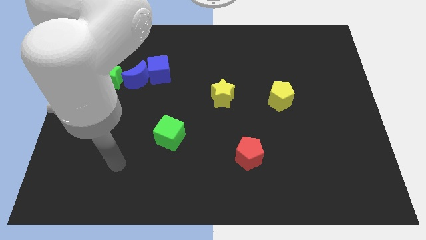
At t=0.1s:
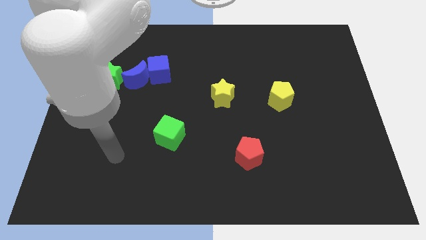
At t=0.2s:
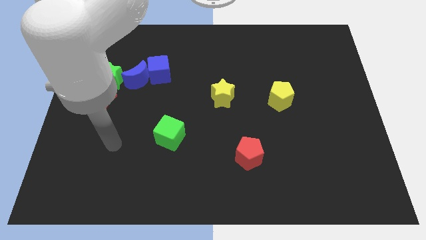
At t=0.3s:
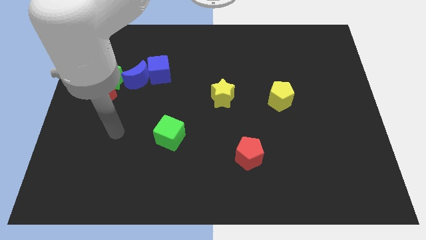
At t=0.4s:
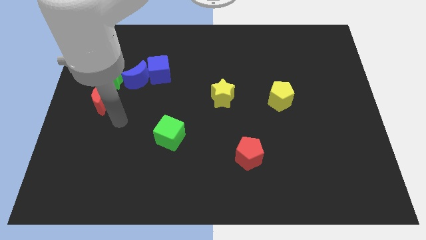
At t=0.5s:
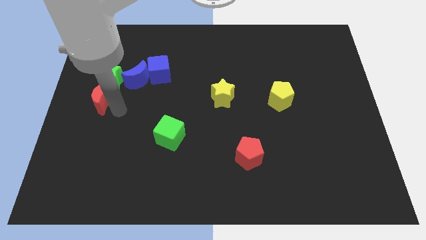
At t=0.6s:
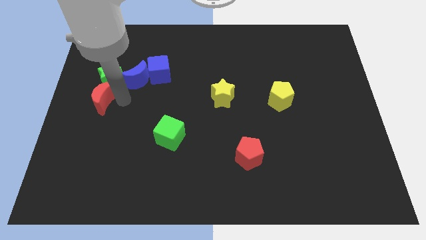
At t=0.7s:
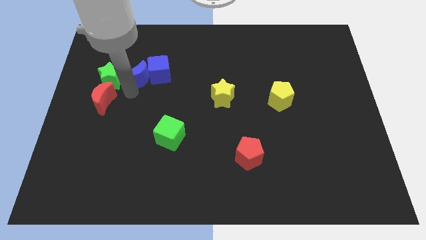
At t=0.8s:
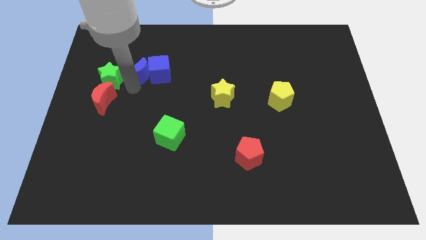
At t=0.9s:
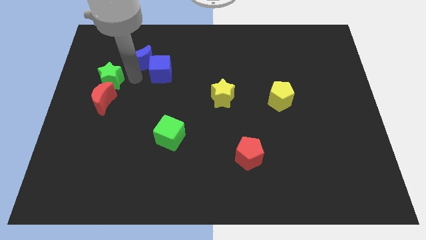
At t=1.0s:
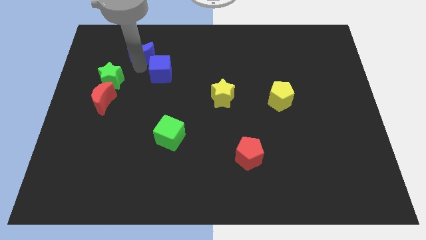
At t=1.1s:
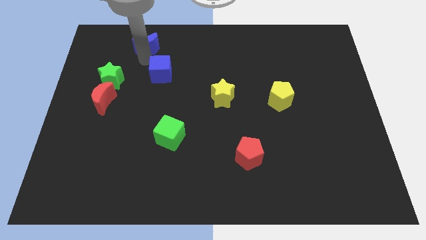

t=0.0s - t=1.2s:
move the blue cube away from the blue moon

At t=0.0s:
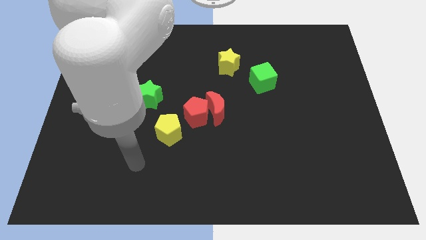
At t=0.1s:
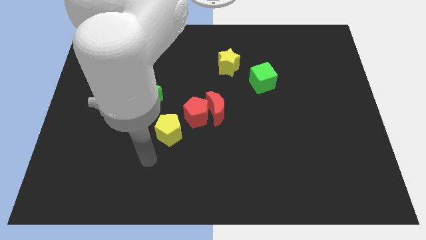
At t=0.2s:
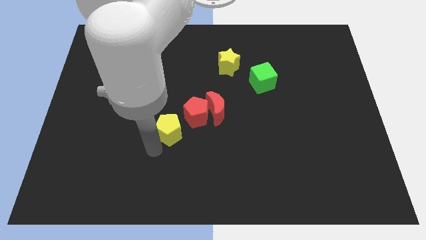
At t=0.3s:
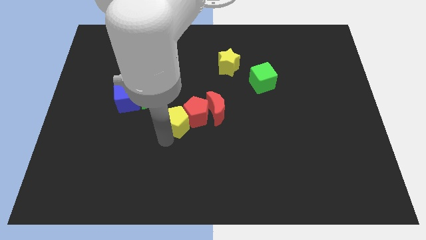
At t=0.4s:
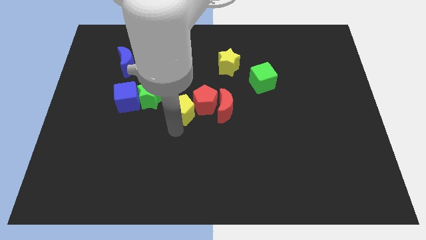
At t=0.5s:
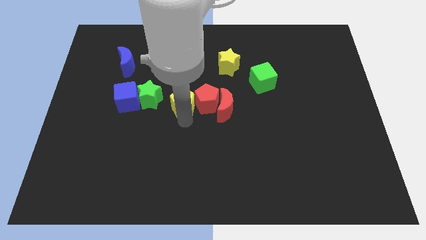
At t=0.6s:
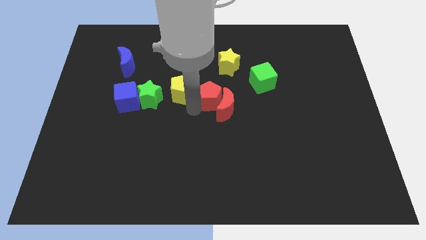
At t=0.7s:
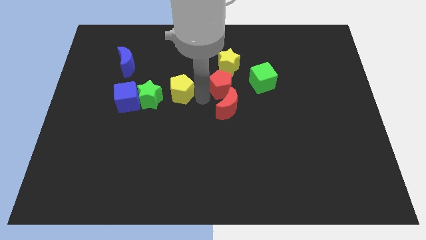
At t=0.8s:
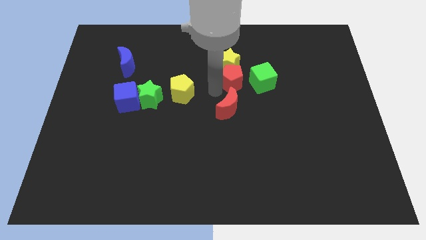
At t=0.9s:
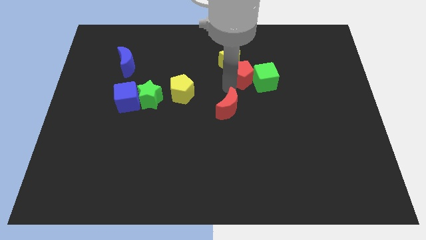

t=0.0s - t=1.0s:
separate the red moon from the red pentagon

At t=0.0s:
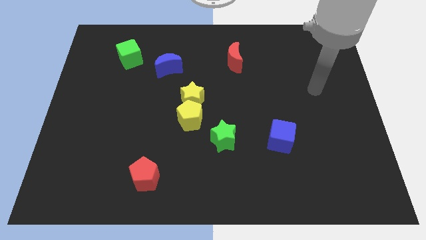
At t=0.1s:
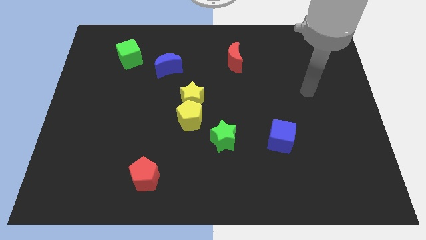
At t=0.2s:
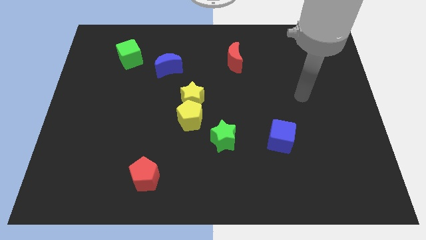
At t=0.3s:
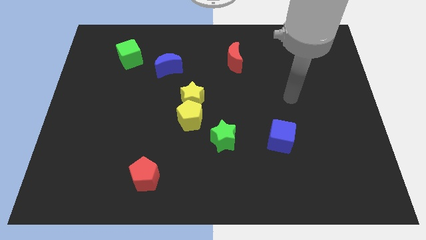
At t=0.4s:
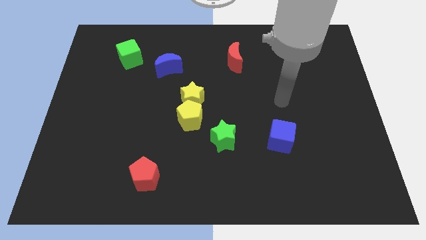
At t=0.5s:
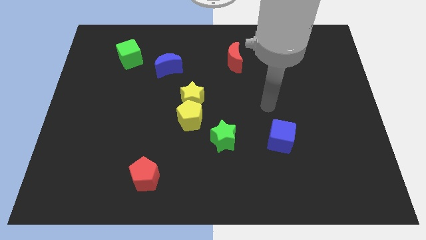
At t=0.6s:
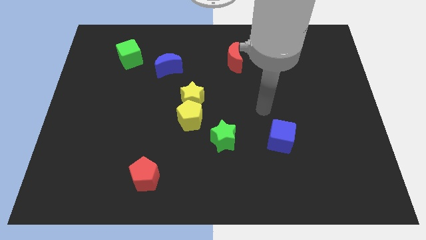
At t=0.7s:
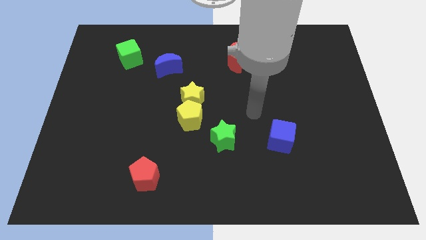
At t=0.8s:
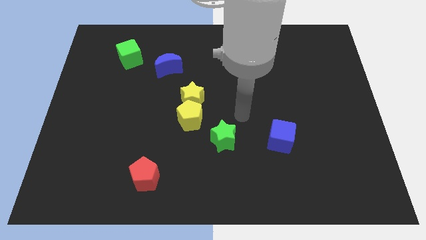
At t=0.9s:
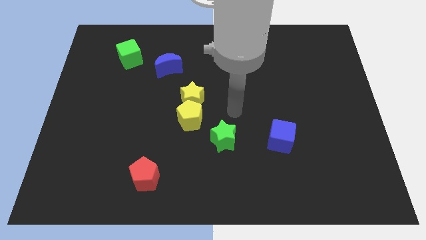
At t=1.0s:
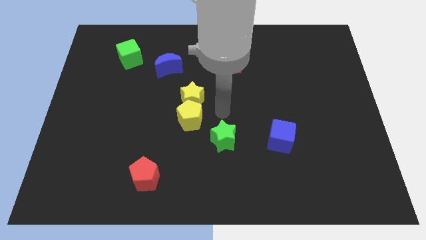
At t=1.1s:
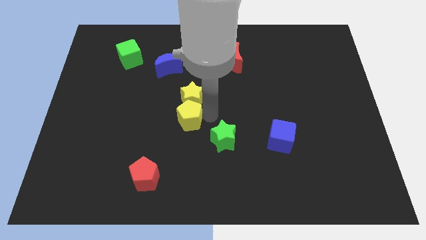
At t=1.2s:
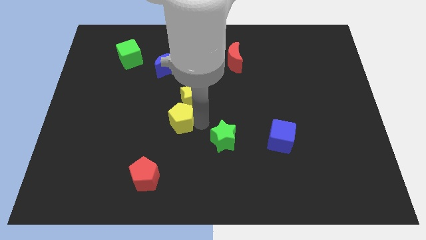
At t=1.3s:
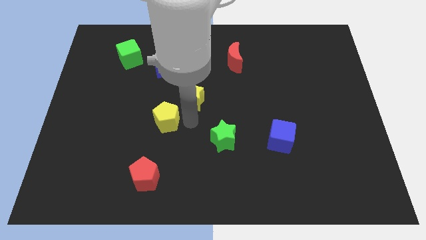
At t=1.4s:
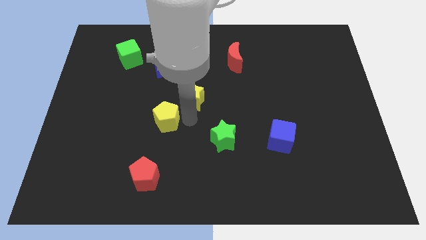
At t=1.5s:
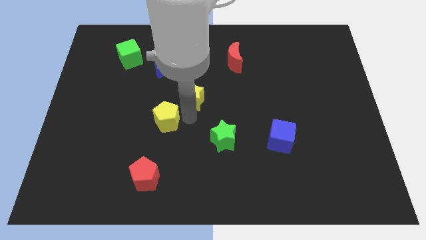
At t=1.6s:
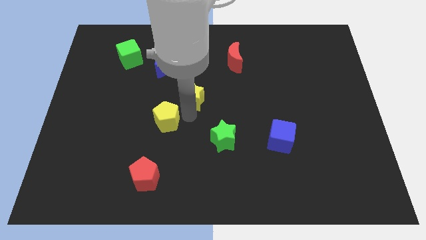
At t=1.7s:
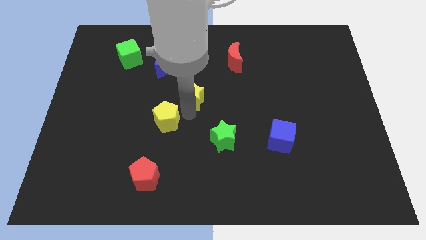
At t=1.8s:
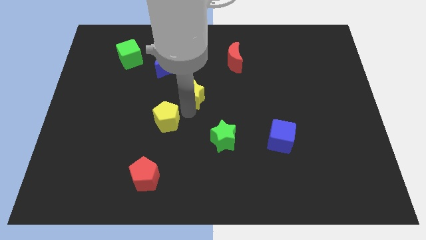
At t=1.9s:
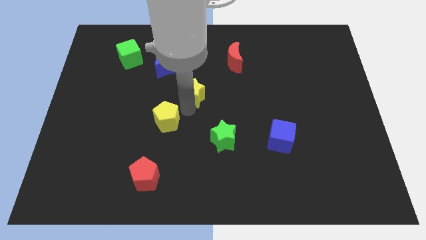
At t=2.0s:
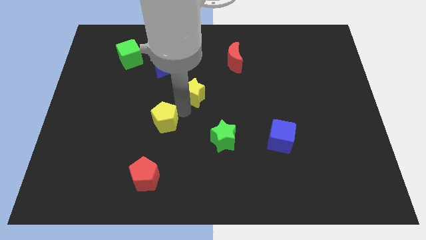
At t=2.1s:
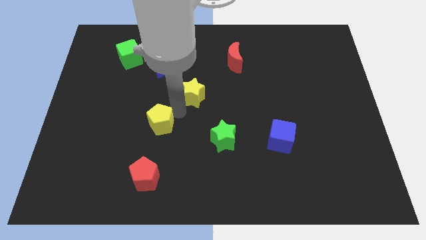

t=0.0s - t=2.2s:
move the yellow star away from the yellow pentagon

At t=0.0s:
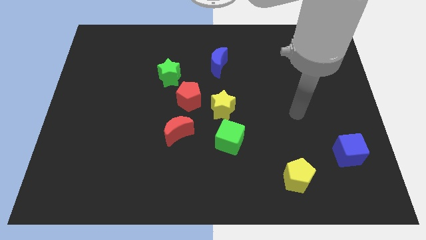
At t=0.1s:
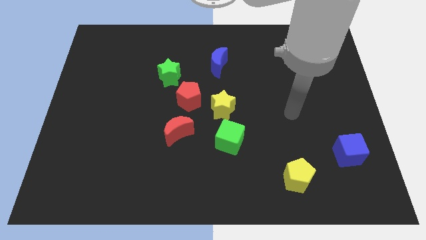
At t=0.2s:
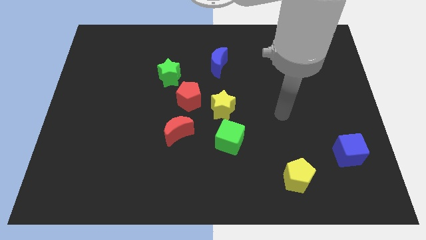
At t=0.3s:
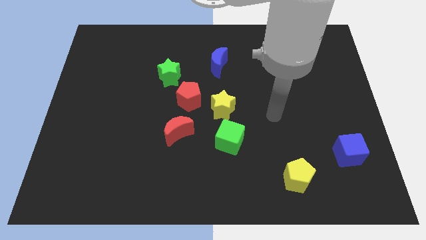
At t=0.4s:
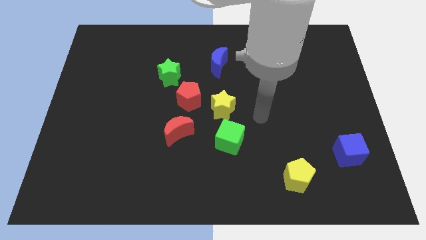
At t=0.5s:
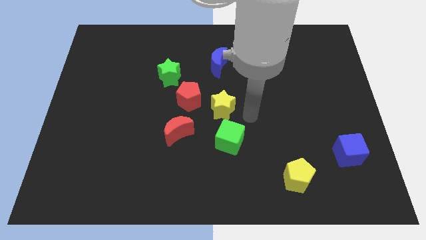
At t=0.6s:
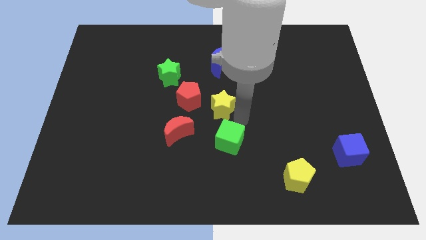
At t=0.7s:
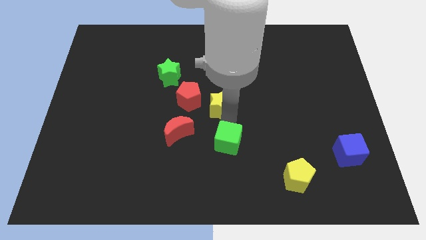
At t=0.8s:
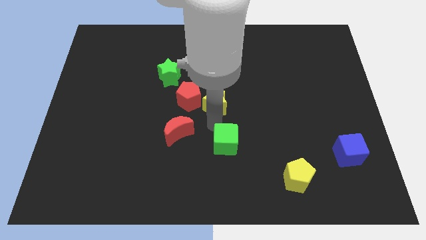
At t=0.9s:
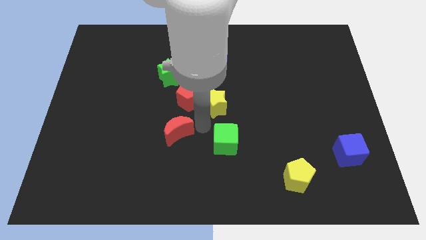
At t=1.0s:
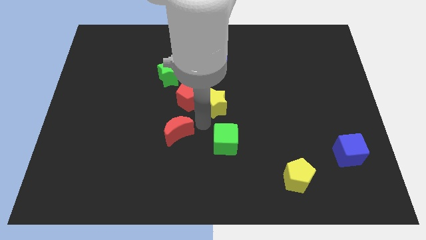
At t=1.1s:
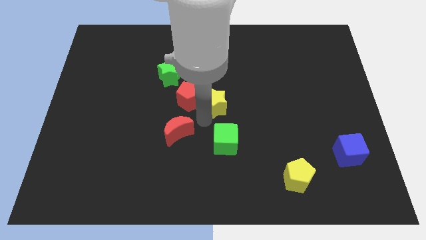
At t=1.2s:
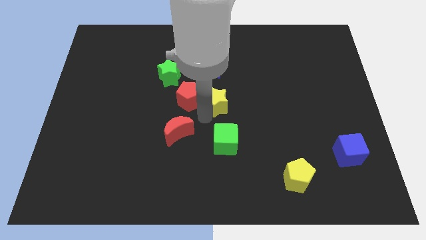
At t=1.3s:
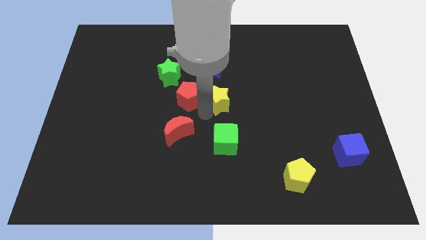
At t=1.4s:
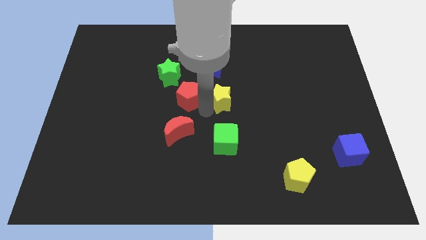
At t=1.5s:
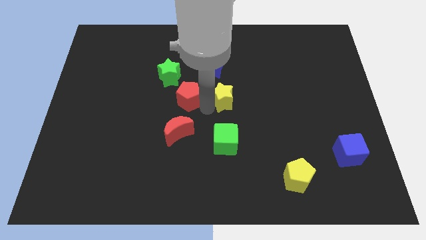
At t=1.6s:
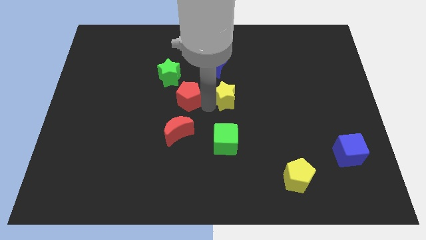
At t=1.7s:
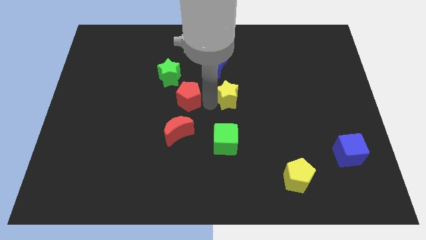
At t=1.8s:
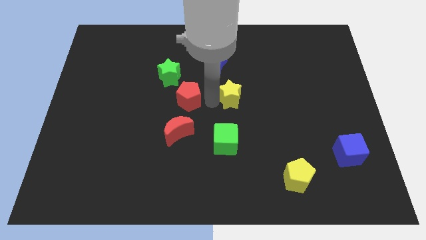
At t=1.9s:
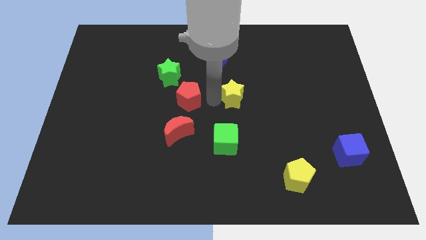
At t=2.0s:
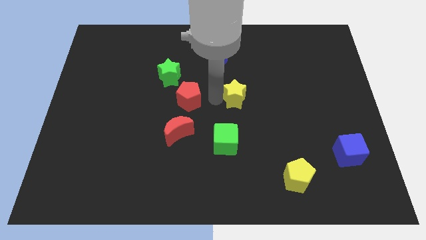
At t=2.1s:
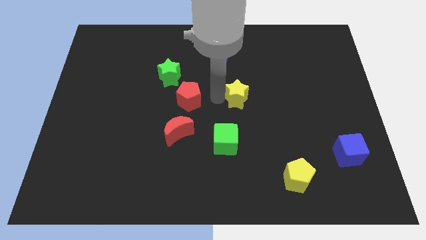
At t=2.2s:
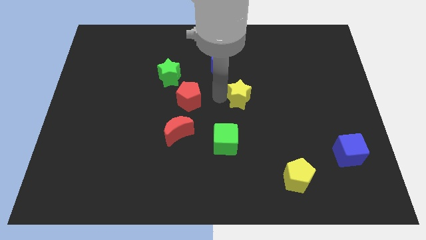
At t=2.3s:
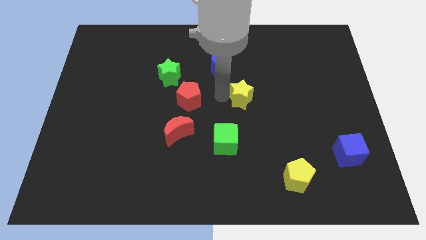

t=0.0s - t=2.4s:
move the yellow star away from the red pentagon and green cube

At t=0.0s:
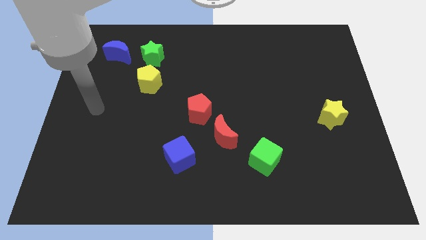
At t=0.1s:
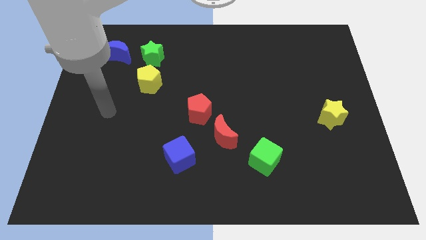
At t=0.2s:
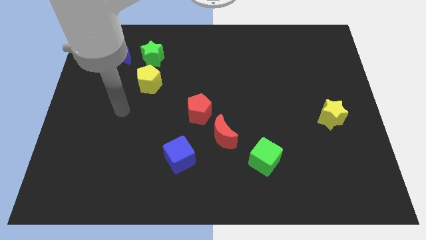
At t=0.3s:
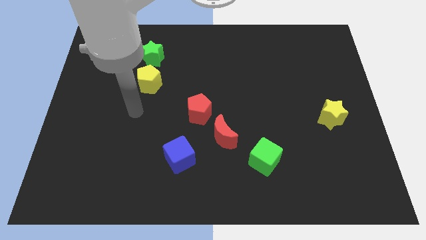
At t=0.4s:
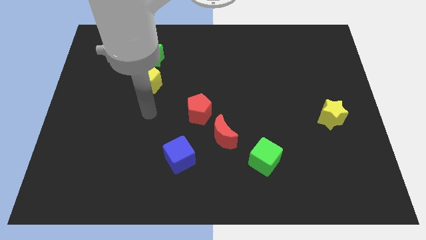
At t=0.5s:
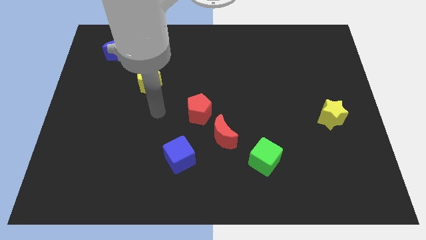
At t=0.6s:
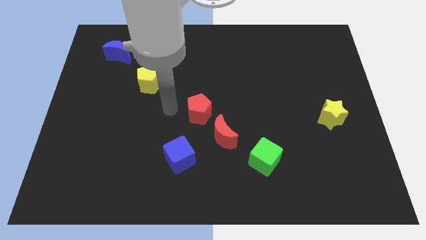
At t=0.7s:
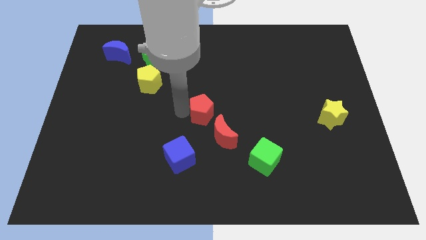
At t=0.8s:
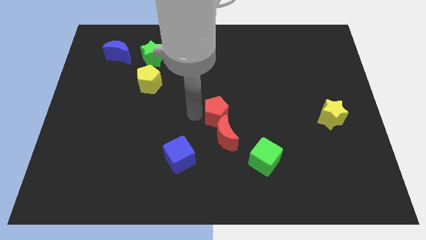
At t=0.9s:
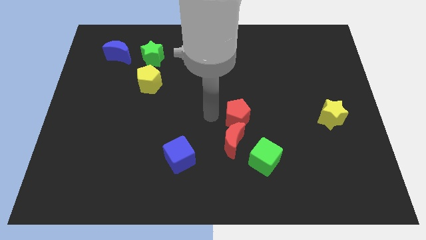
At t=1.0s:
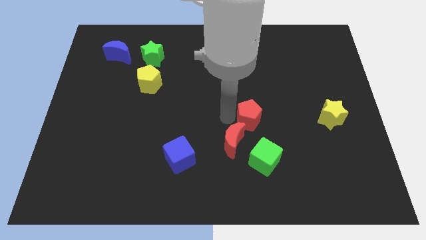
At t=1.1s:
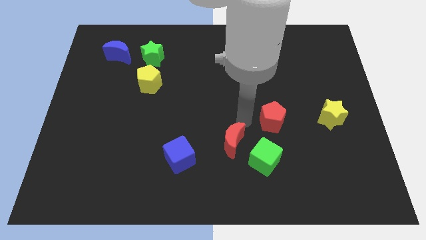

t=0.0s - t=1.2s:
pull the red moon apart from the red pentagon

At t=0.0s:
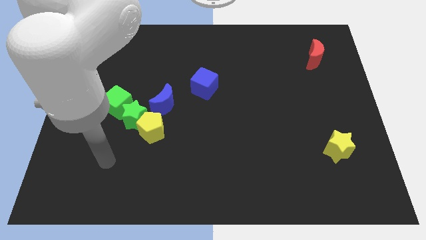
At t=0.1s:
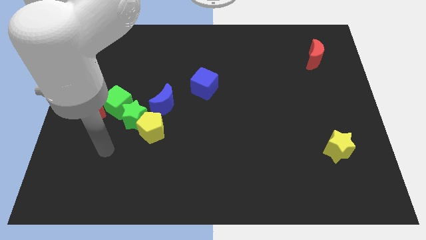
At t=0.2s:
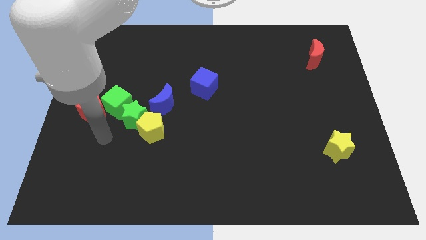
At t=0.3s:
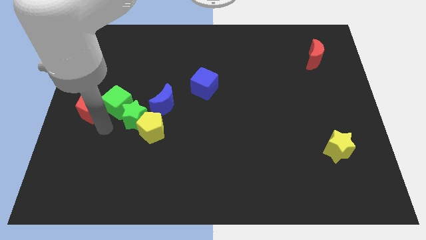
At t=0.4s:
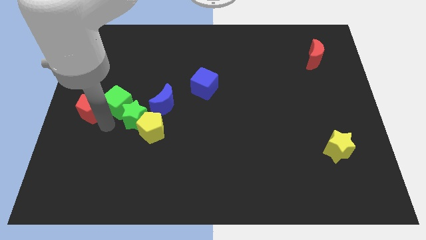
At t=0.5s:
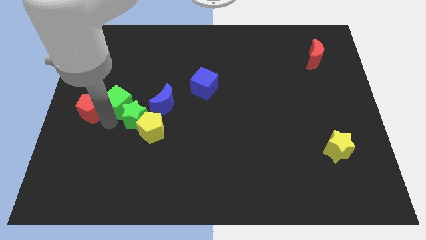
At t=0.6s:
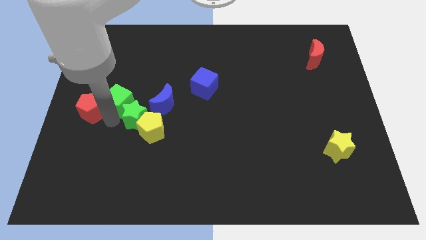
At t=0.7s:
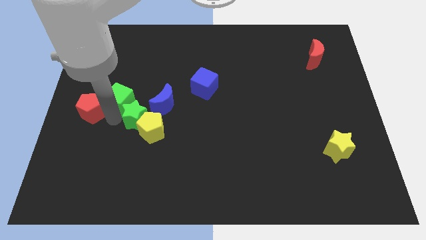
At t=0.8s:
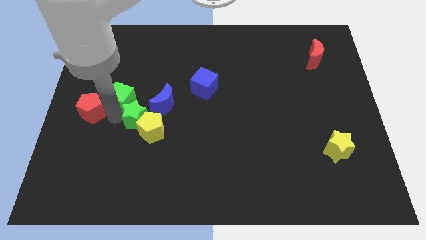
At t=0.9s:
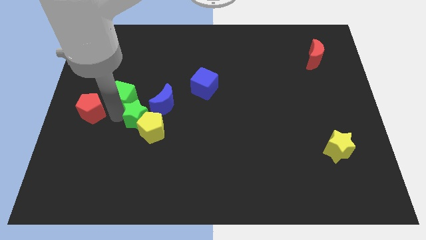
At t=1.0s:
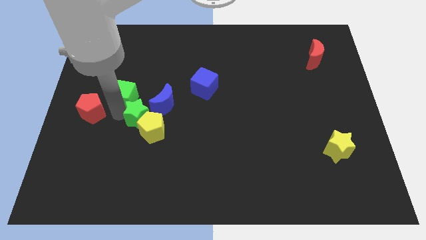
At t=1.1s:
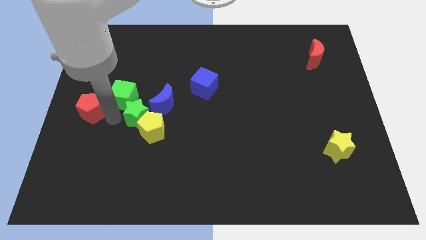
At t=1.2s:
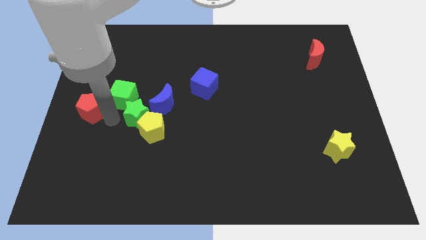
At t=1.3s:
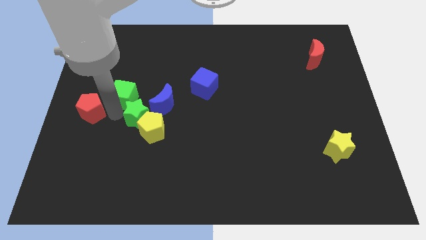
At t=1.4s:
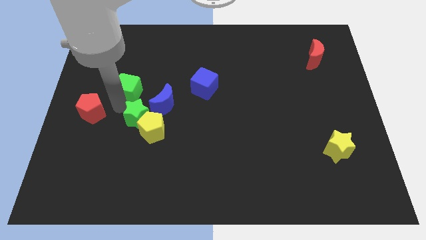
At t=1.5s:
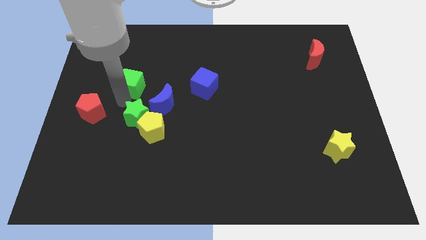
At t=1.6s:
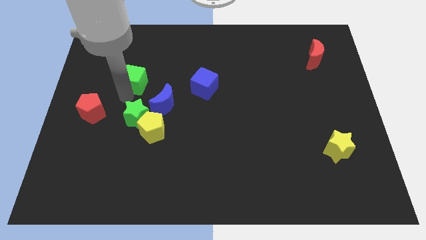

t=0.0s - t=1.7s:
pull the green cube apart from the green star and red pentagon
